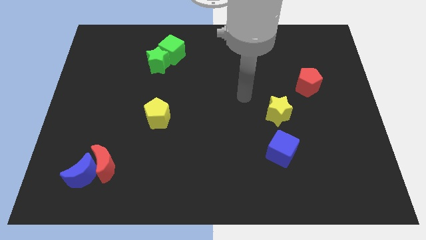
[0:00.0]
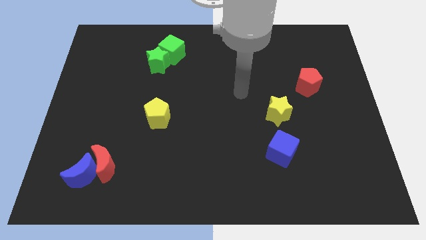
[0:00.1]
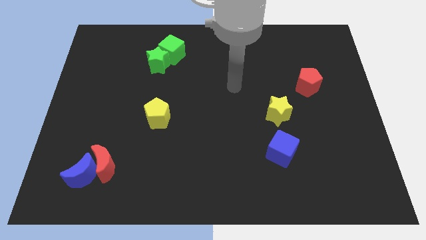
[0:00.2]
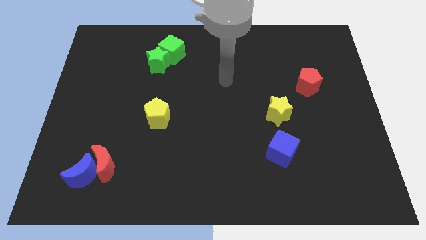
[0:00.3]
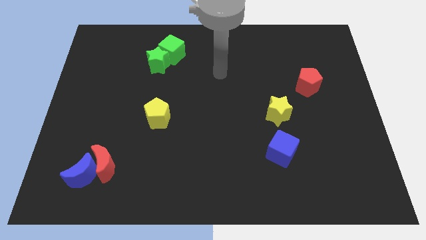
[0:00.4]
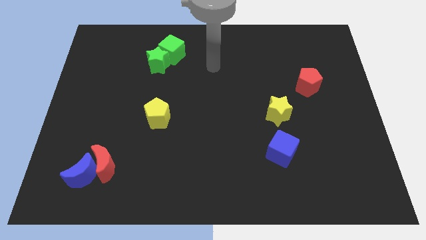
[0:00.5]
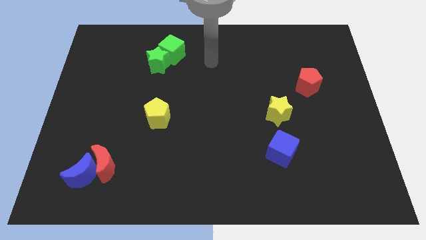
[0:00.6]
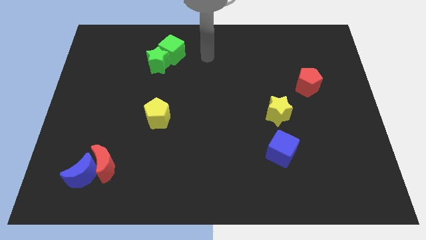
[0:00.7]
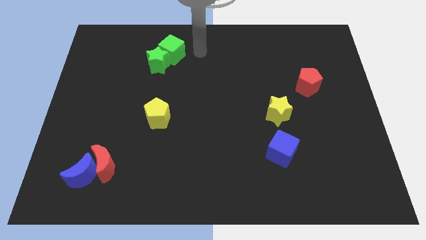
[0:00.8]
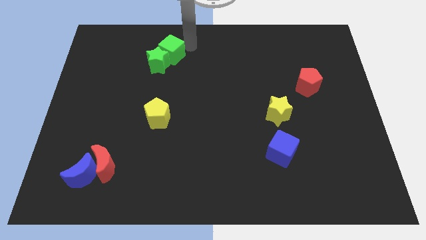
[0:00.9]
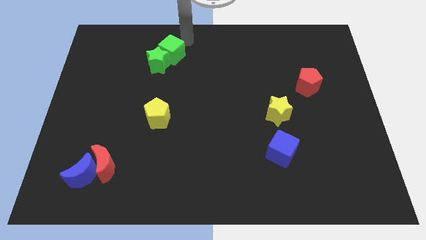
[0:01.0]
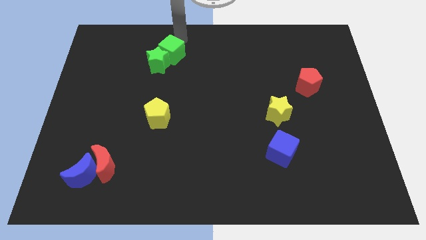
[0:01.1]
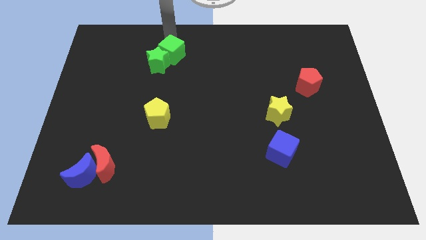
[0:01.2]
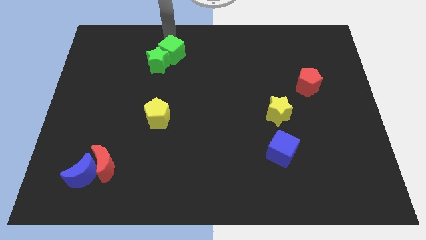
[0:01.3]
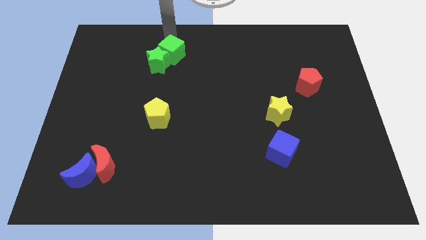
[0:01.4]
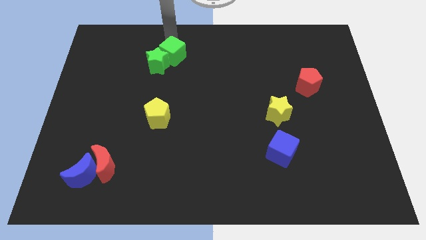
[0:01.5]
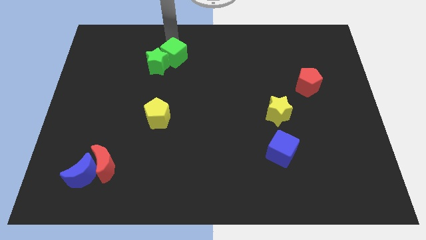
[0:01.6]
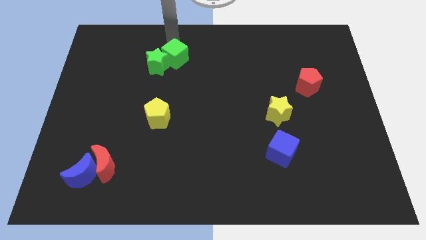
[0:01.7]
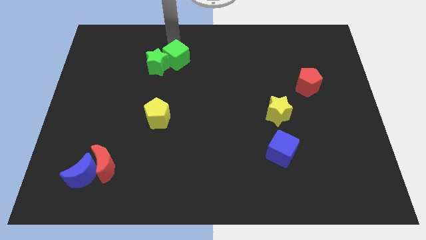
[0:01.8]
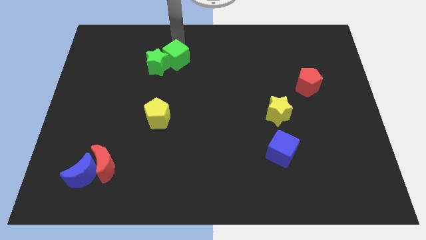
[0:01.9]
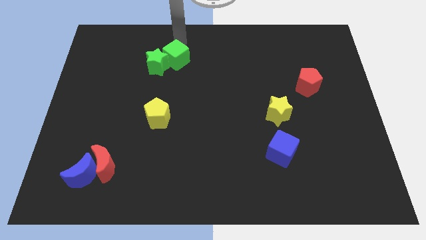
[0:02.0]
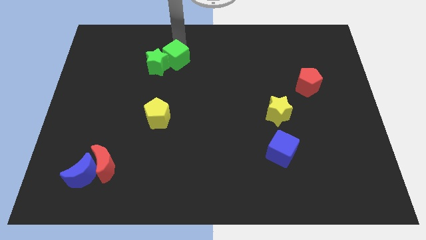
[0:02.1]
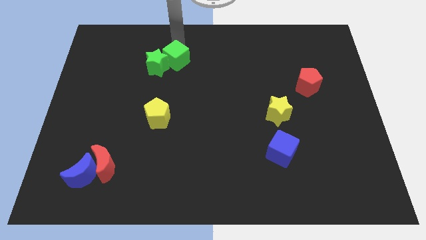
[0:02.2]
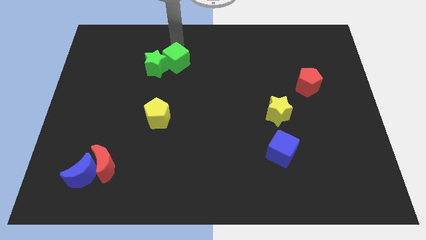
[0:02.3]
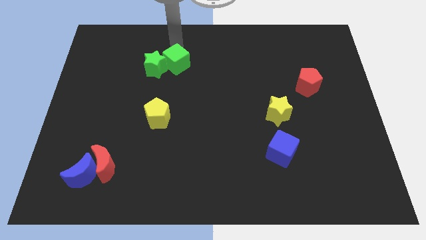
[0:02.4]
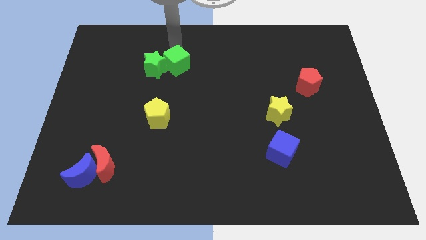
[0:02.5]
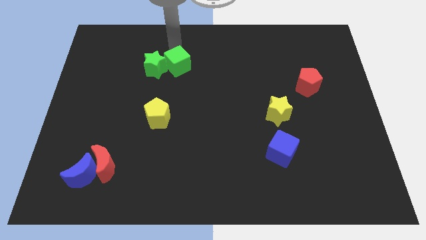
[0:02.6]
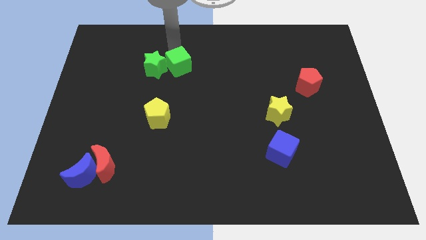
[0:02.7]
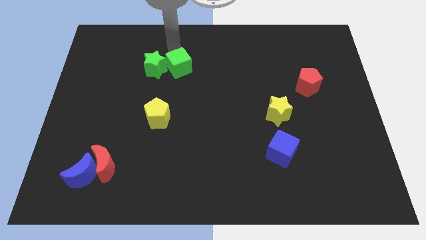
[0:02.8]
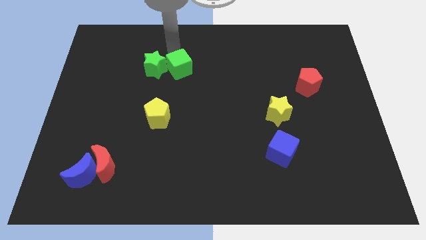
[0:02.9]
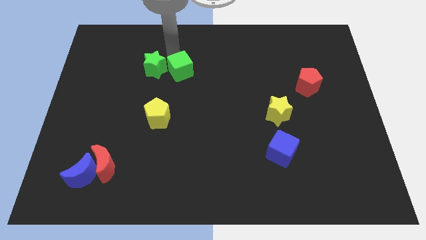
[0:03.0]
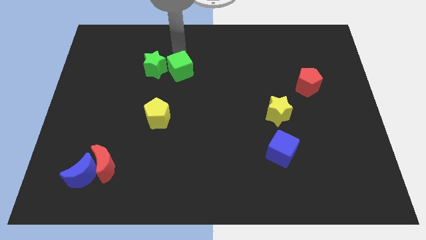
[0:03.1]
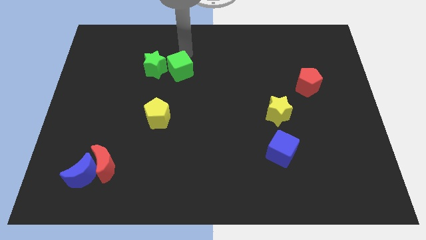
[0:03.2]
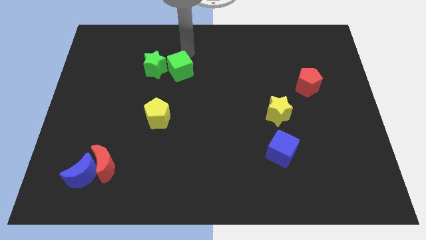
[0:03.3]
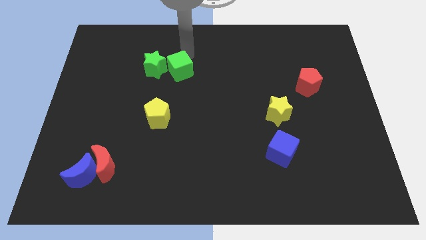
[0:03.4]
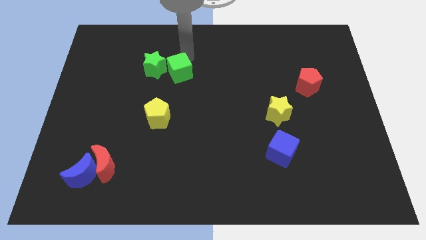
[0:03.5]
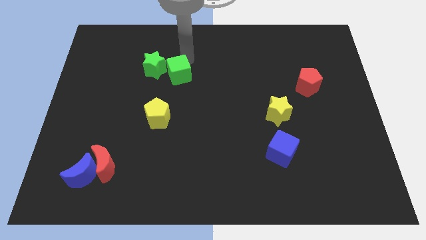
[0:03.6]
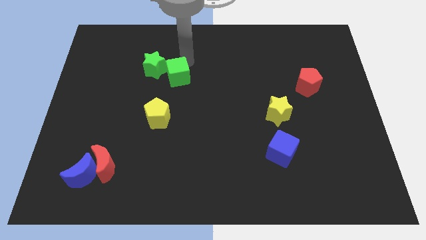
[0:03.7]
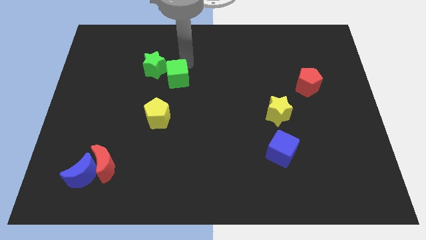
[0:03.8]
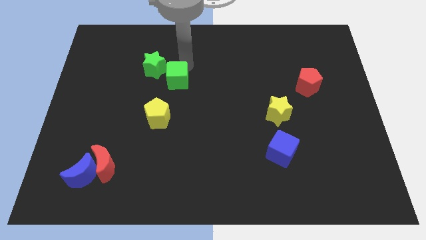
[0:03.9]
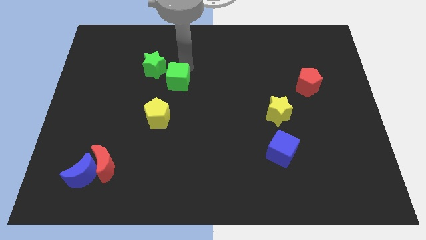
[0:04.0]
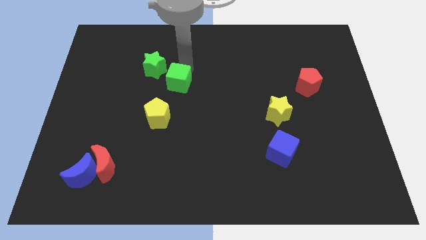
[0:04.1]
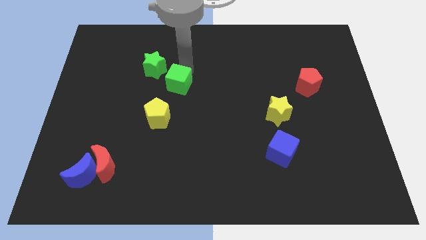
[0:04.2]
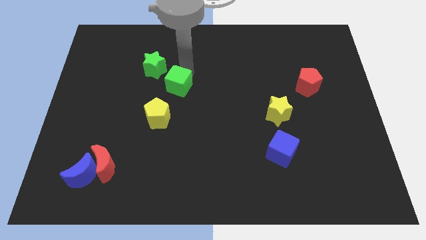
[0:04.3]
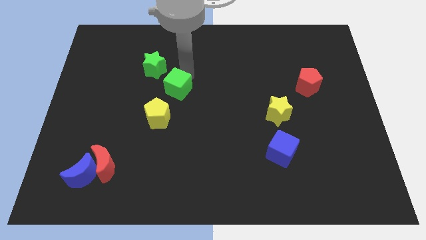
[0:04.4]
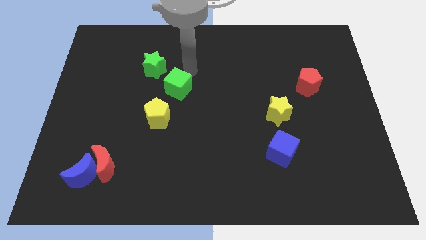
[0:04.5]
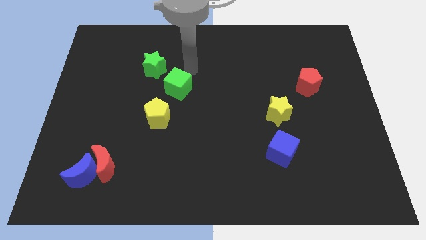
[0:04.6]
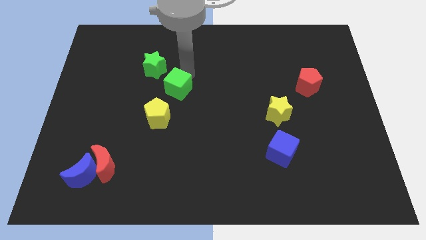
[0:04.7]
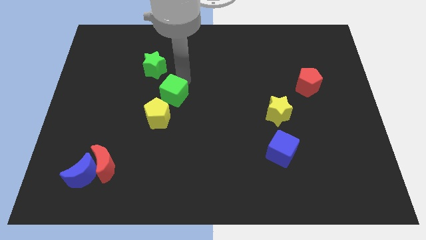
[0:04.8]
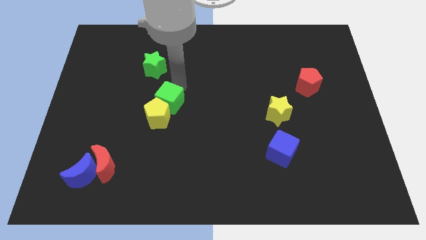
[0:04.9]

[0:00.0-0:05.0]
slide the green cube close to the yellow pentagon

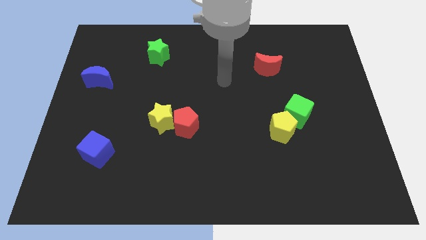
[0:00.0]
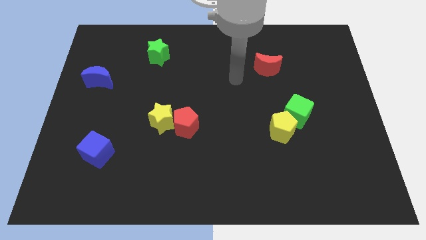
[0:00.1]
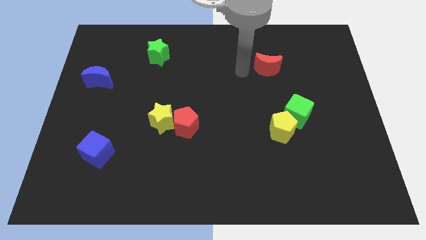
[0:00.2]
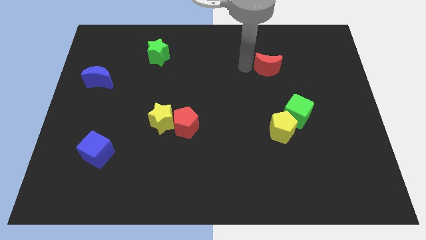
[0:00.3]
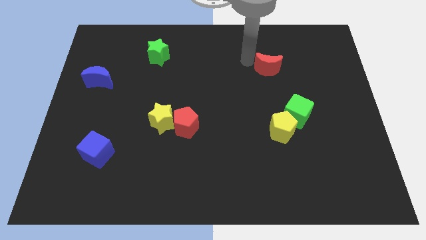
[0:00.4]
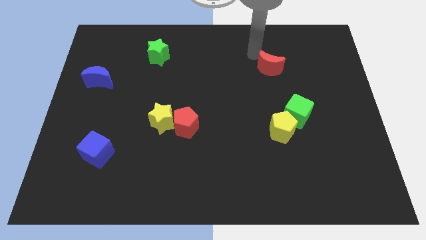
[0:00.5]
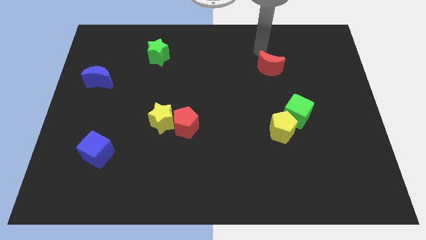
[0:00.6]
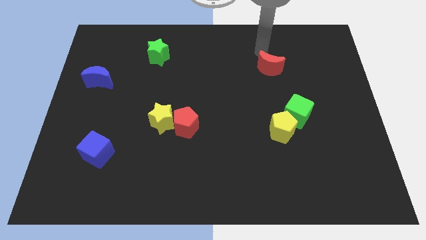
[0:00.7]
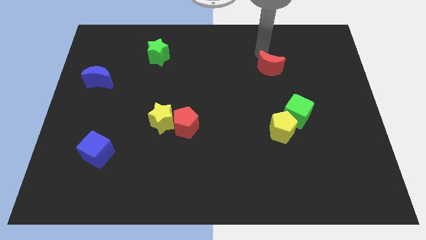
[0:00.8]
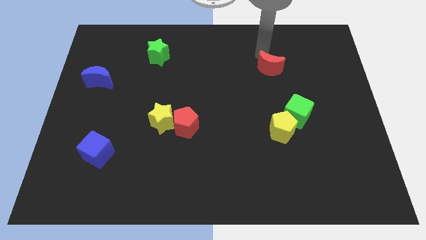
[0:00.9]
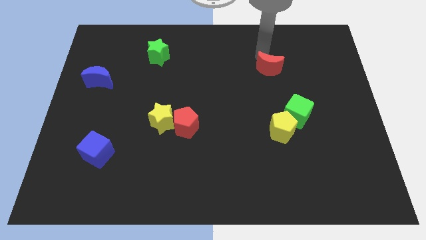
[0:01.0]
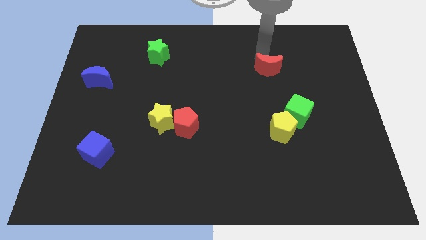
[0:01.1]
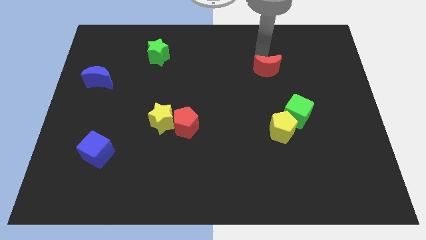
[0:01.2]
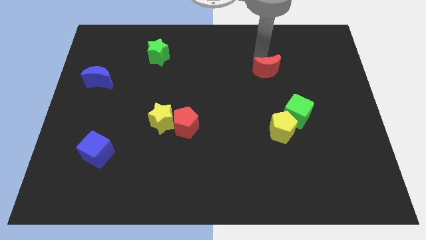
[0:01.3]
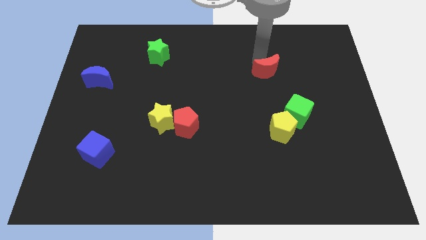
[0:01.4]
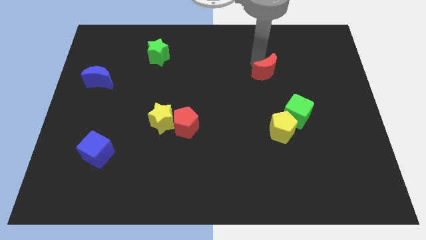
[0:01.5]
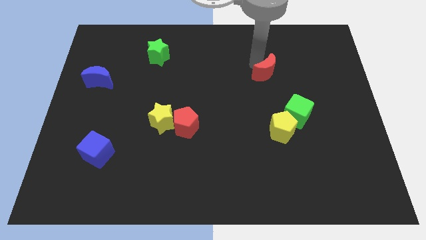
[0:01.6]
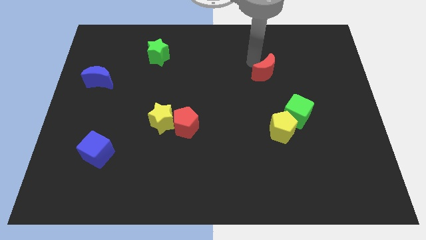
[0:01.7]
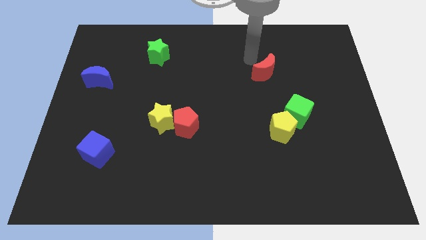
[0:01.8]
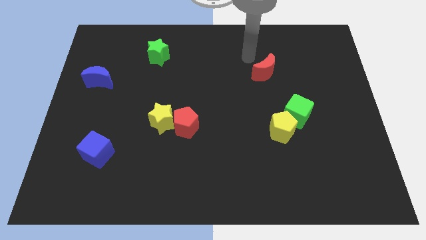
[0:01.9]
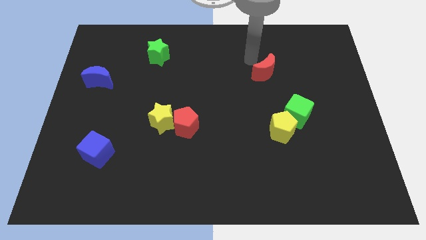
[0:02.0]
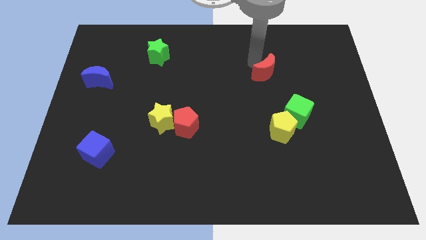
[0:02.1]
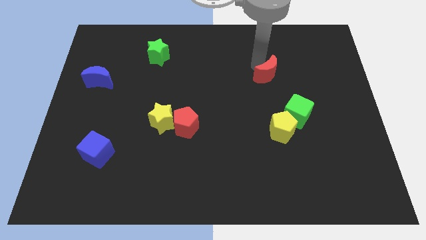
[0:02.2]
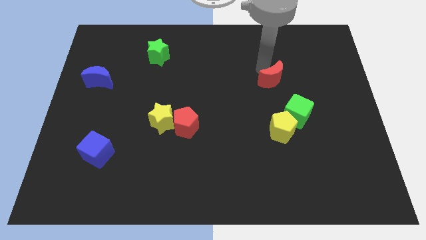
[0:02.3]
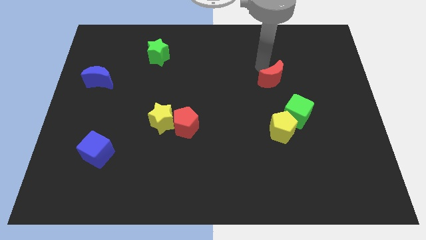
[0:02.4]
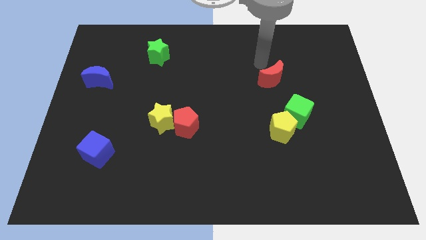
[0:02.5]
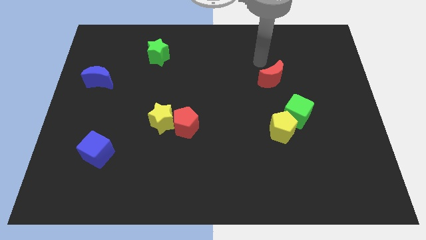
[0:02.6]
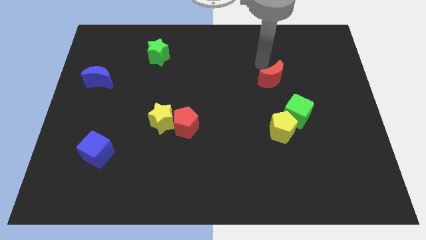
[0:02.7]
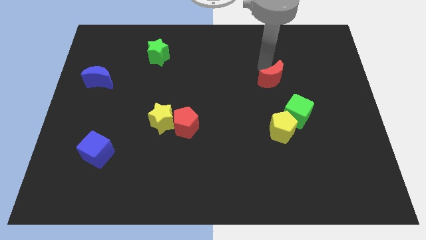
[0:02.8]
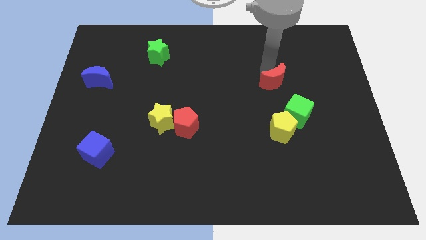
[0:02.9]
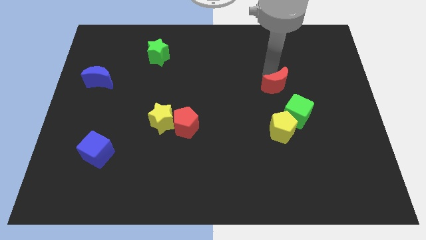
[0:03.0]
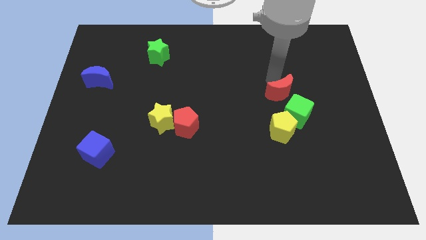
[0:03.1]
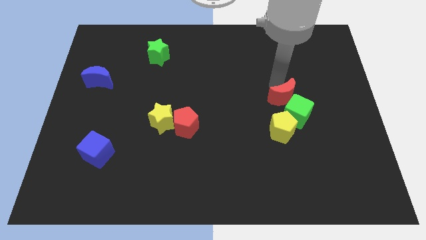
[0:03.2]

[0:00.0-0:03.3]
move the red moon to the green cube
